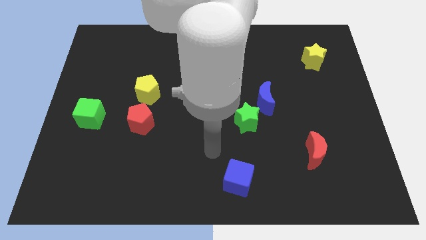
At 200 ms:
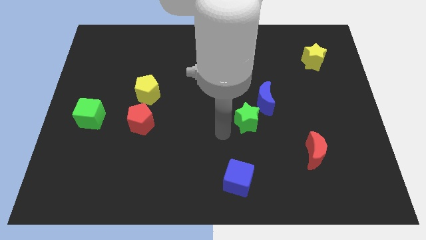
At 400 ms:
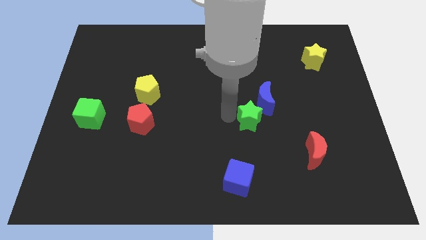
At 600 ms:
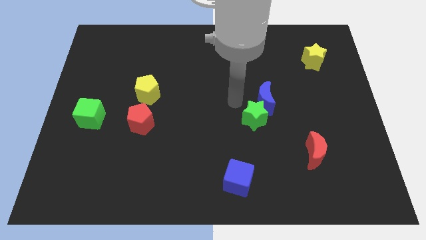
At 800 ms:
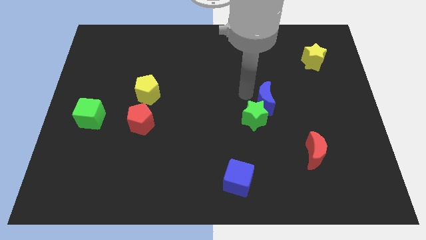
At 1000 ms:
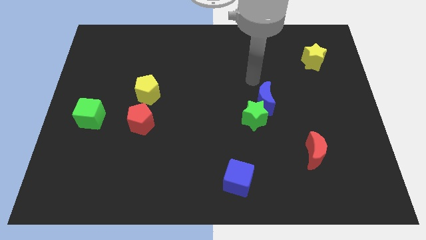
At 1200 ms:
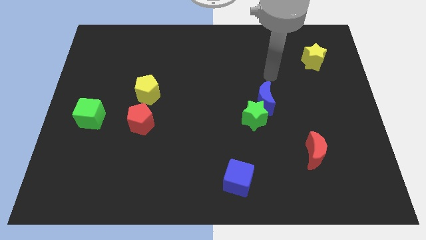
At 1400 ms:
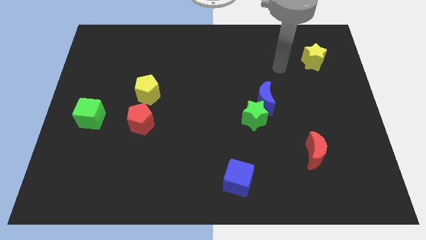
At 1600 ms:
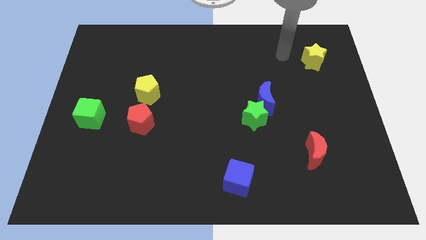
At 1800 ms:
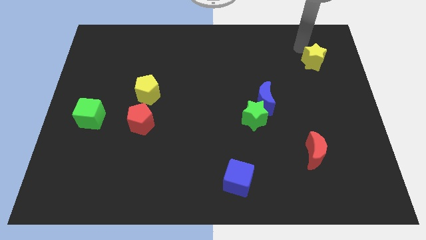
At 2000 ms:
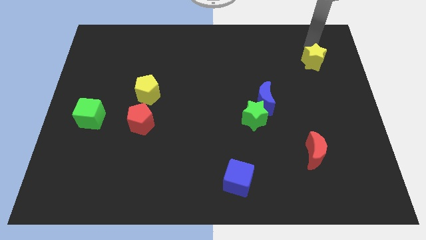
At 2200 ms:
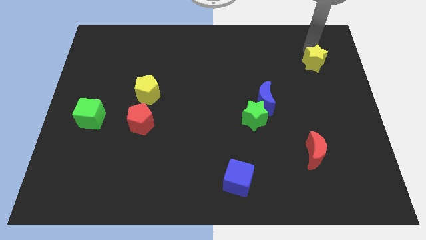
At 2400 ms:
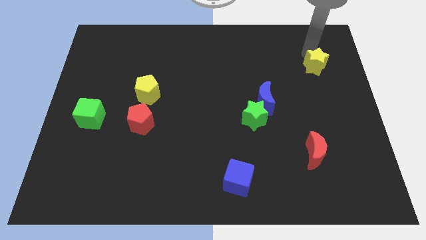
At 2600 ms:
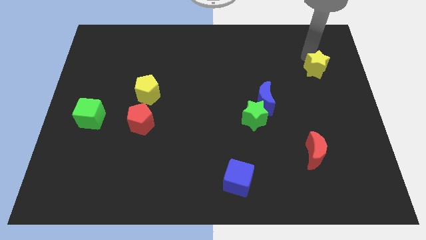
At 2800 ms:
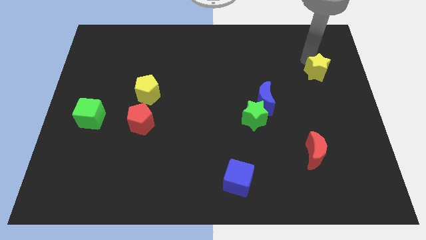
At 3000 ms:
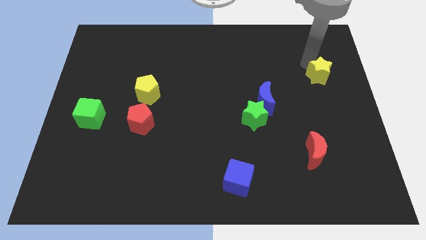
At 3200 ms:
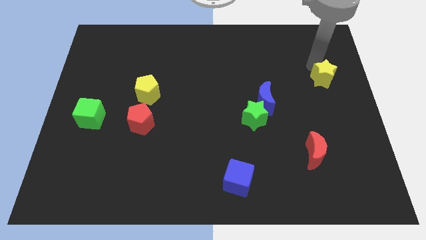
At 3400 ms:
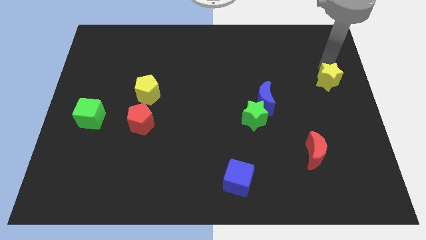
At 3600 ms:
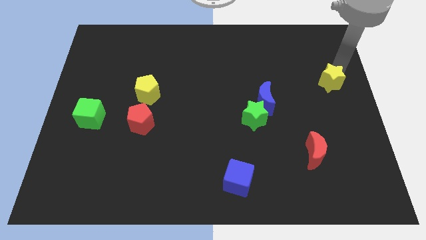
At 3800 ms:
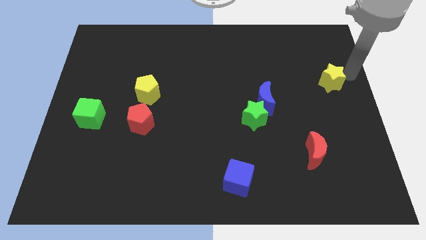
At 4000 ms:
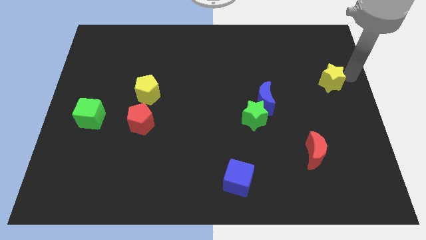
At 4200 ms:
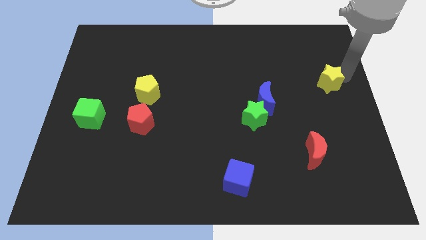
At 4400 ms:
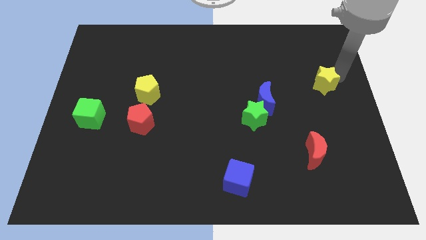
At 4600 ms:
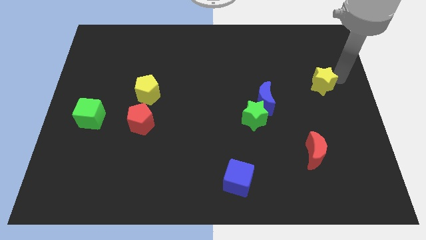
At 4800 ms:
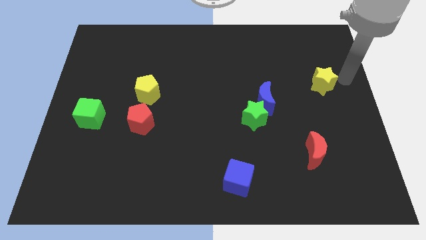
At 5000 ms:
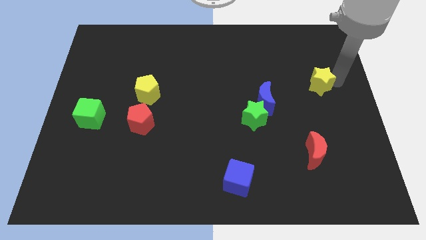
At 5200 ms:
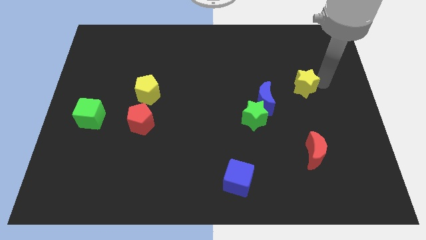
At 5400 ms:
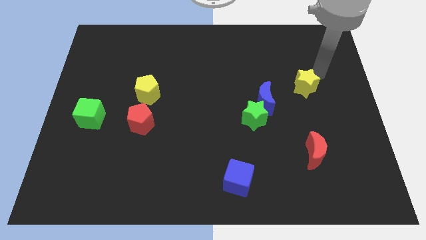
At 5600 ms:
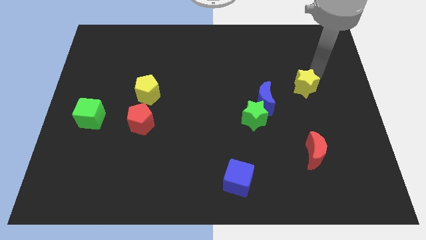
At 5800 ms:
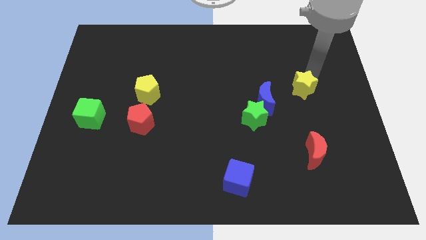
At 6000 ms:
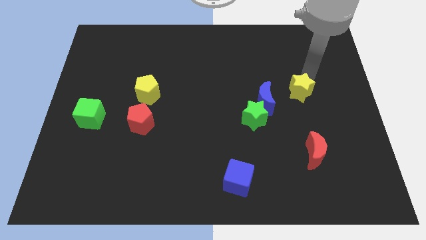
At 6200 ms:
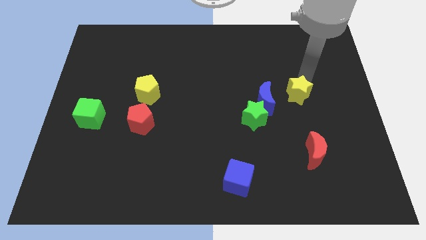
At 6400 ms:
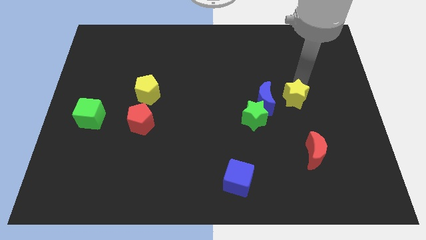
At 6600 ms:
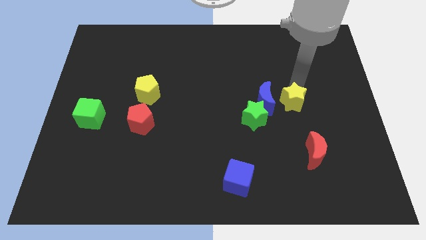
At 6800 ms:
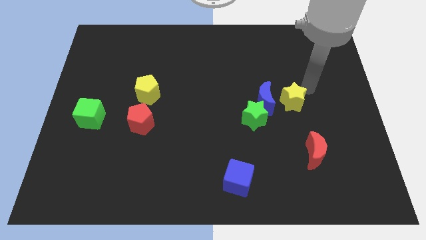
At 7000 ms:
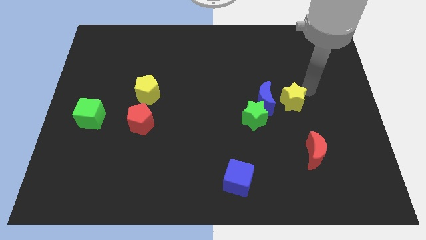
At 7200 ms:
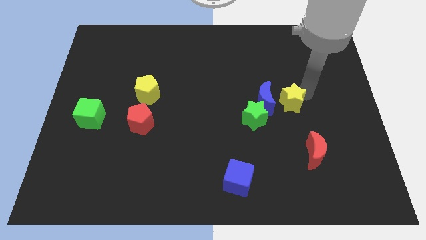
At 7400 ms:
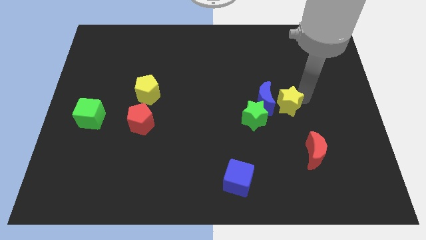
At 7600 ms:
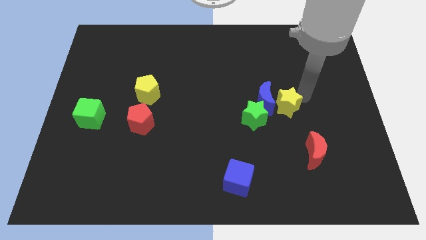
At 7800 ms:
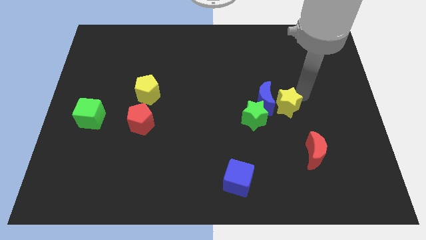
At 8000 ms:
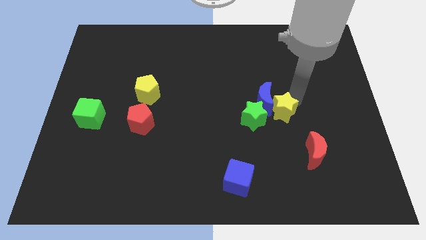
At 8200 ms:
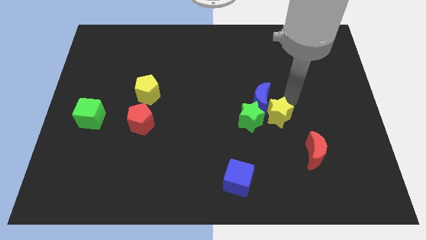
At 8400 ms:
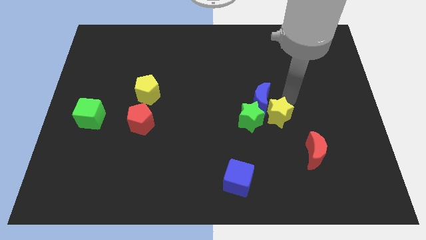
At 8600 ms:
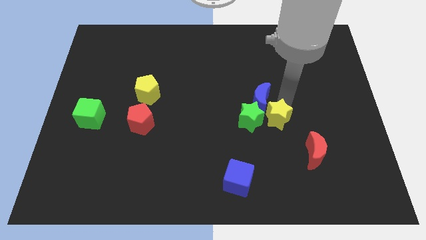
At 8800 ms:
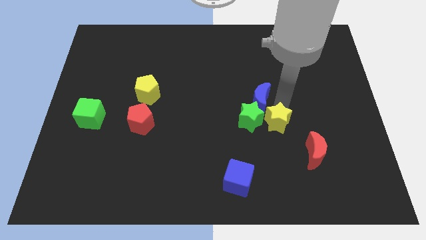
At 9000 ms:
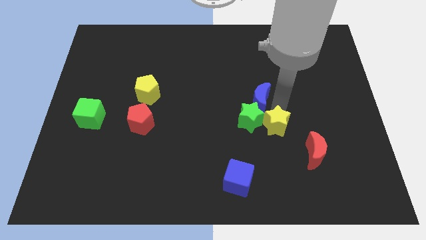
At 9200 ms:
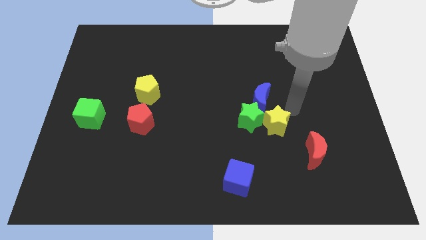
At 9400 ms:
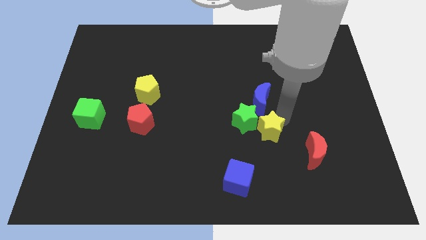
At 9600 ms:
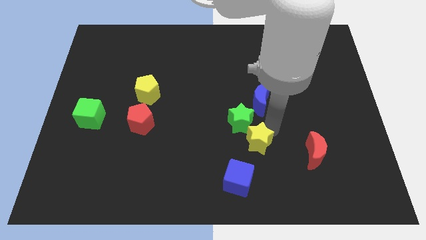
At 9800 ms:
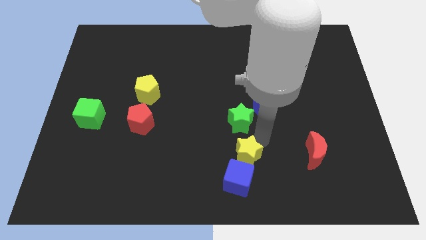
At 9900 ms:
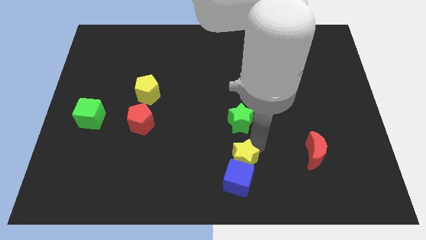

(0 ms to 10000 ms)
push the yellow star to the bottom

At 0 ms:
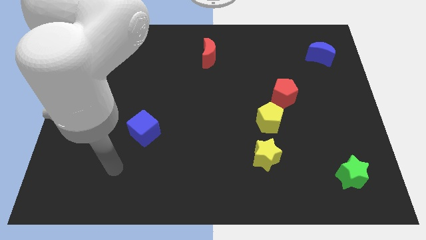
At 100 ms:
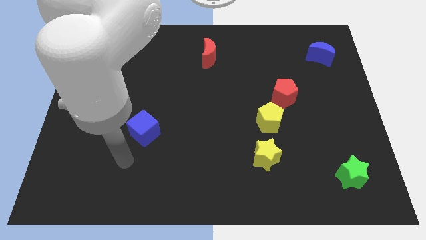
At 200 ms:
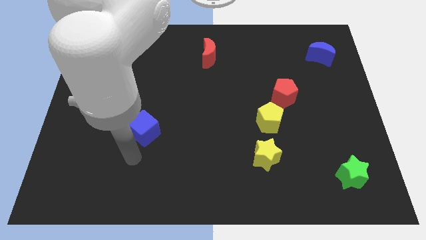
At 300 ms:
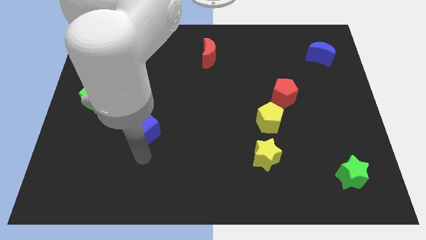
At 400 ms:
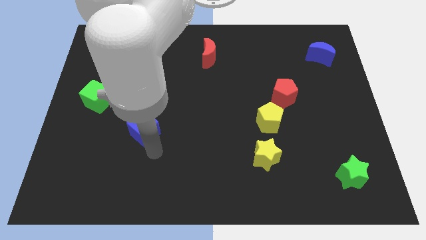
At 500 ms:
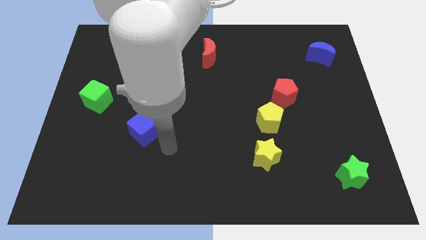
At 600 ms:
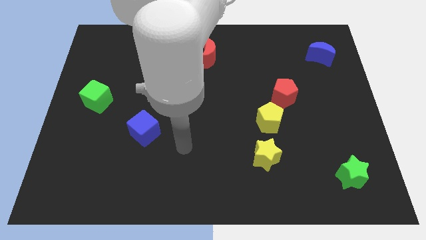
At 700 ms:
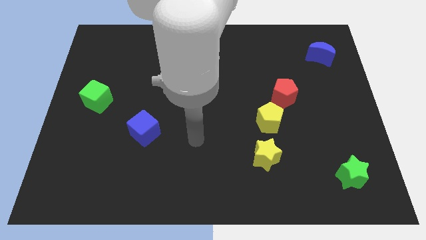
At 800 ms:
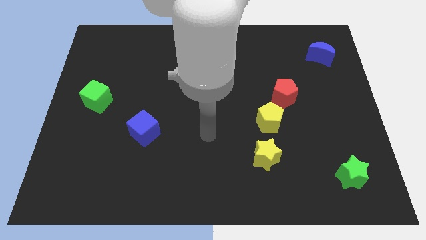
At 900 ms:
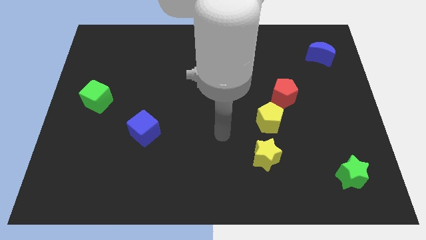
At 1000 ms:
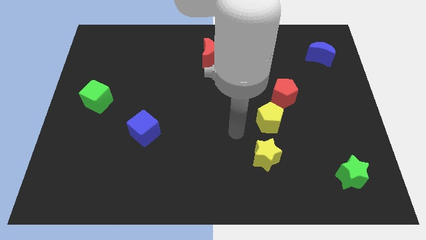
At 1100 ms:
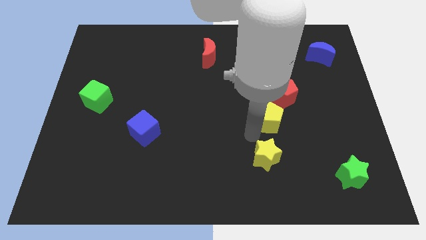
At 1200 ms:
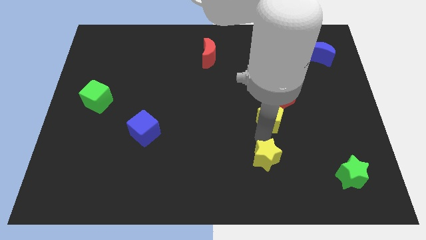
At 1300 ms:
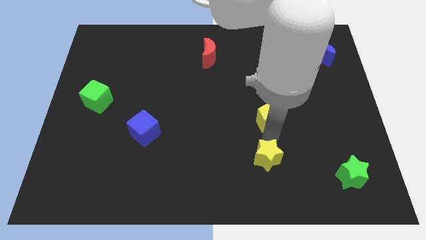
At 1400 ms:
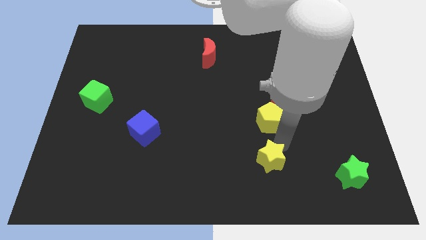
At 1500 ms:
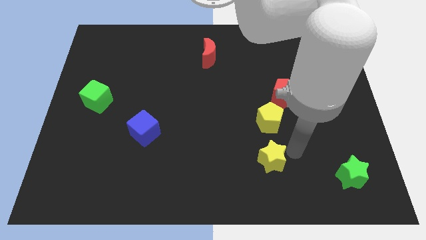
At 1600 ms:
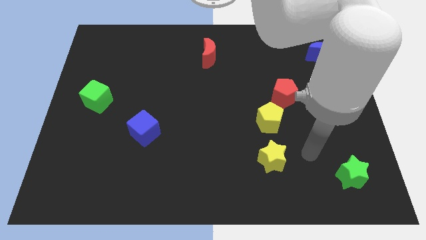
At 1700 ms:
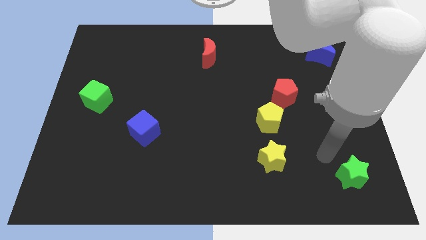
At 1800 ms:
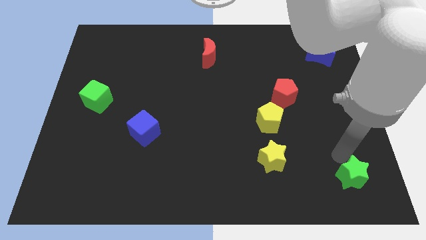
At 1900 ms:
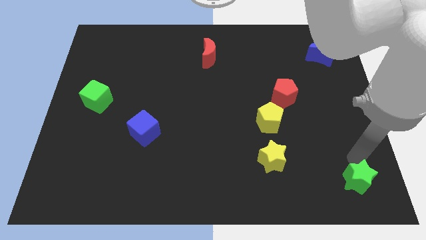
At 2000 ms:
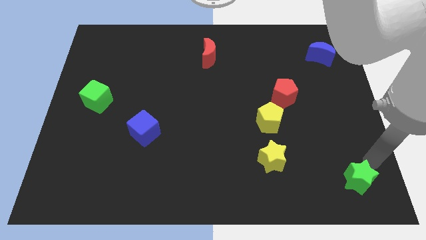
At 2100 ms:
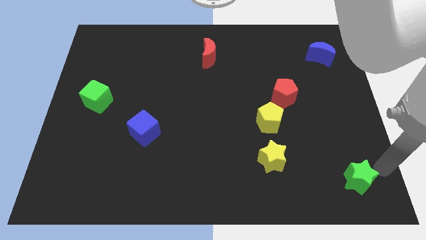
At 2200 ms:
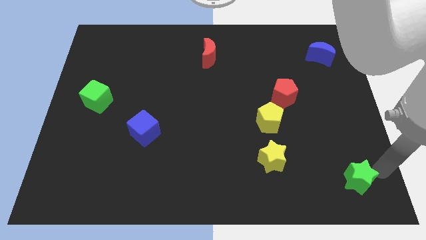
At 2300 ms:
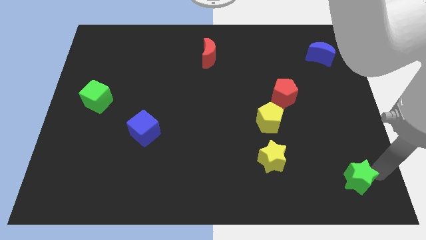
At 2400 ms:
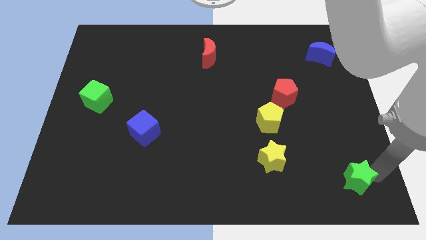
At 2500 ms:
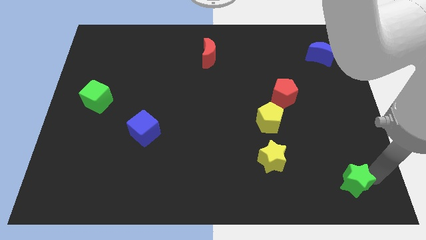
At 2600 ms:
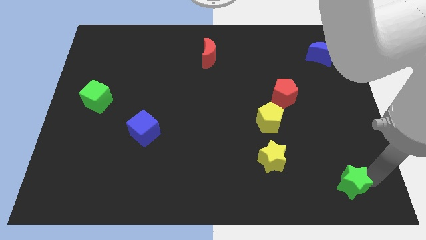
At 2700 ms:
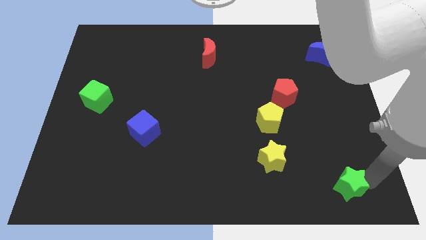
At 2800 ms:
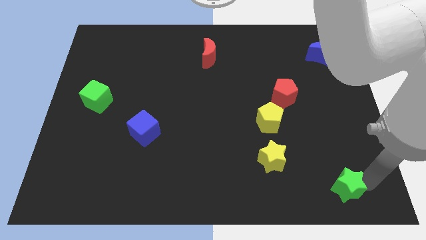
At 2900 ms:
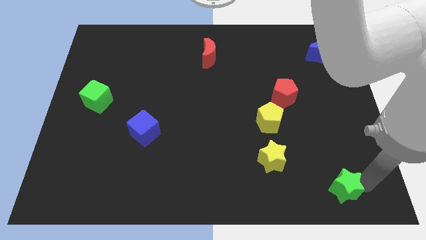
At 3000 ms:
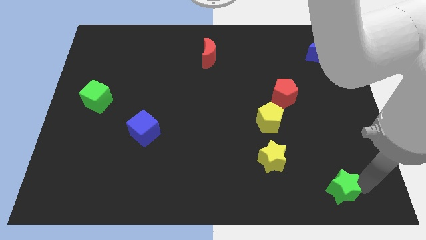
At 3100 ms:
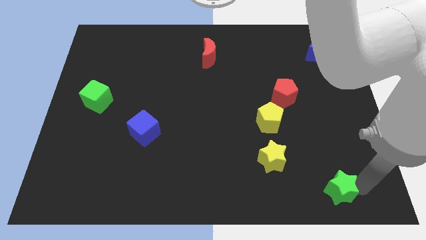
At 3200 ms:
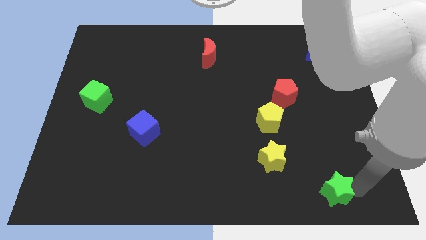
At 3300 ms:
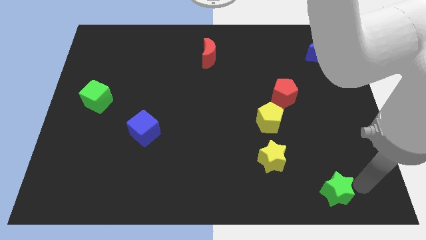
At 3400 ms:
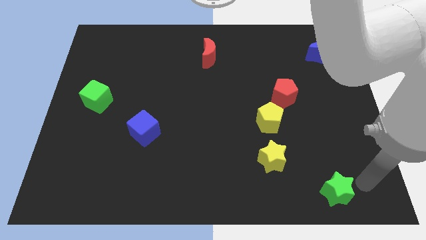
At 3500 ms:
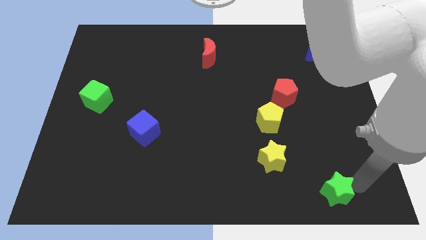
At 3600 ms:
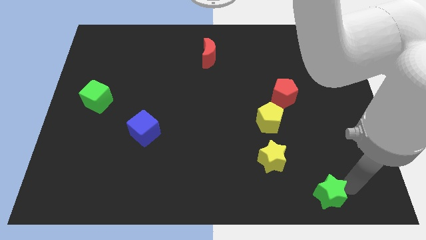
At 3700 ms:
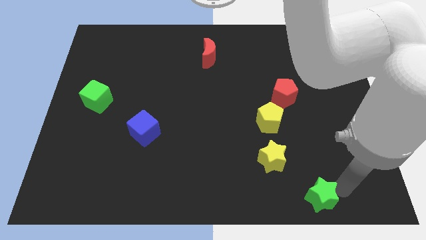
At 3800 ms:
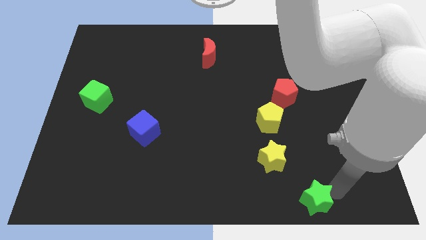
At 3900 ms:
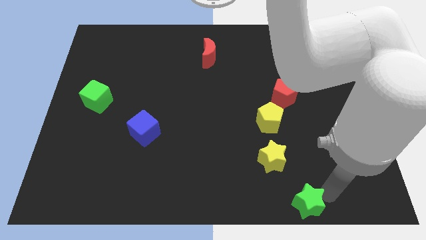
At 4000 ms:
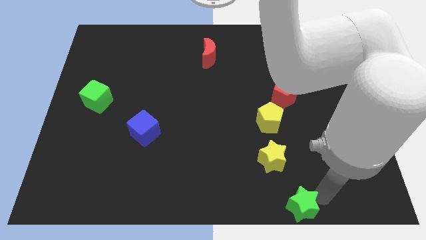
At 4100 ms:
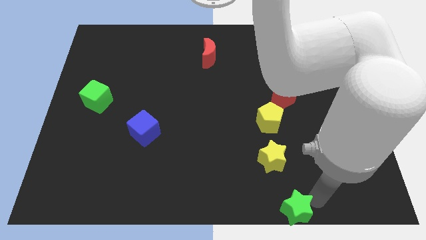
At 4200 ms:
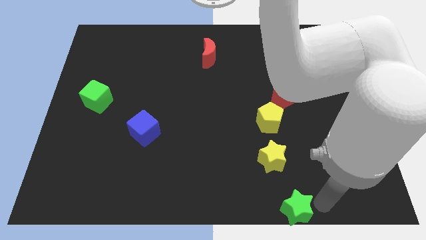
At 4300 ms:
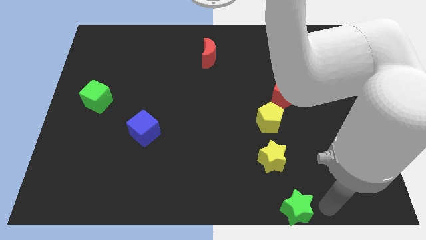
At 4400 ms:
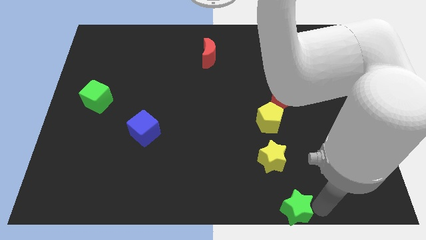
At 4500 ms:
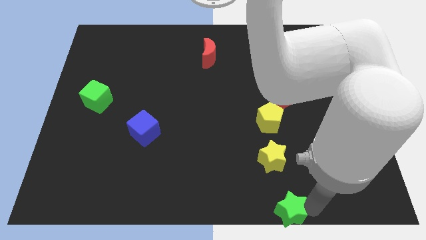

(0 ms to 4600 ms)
move the green star to the bottom side
